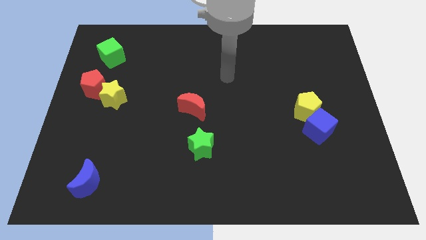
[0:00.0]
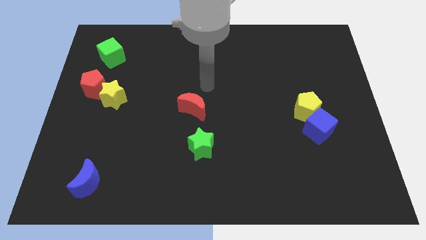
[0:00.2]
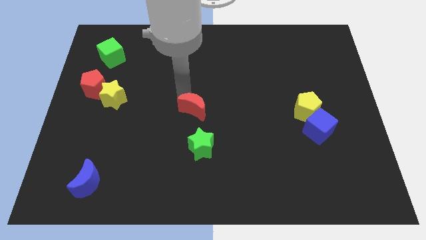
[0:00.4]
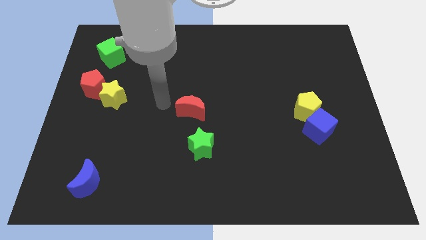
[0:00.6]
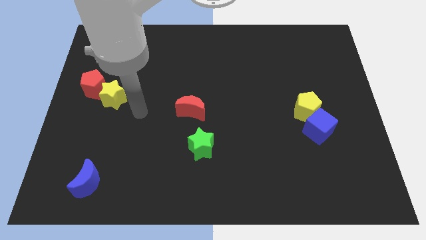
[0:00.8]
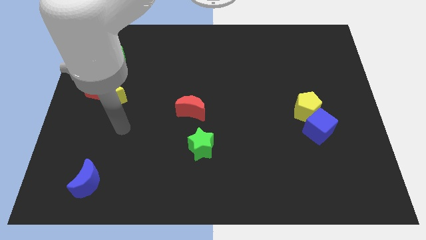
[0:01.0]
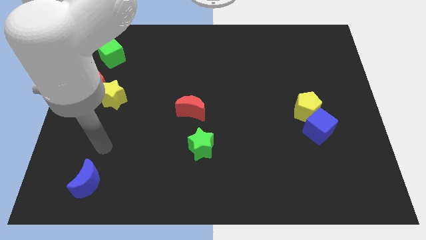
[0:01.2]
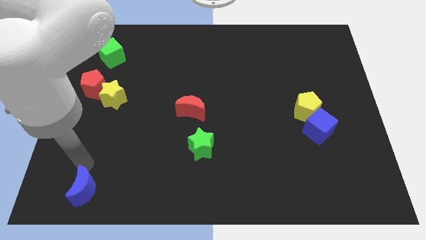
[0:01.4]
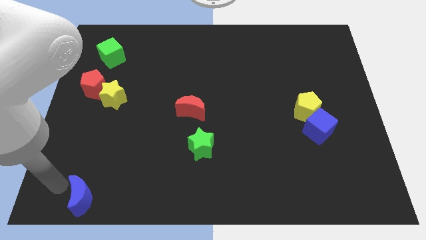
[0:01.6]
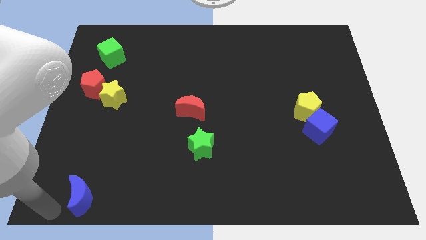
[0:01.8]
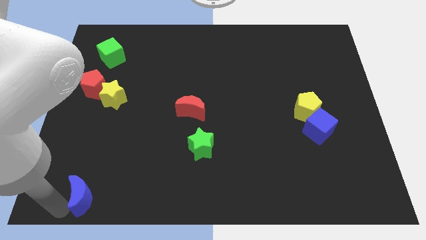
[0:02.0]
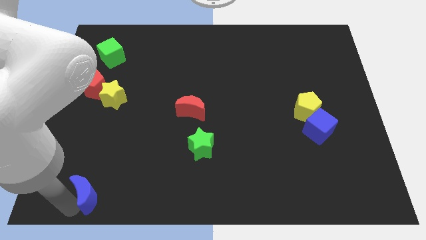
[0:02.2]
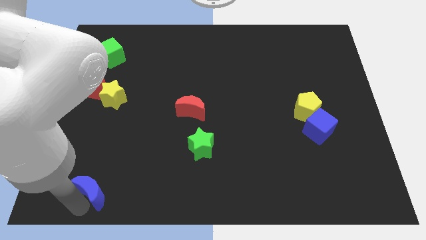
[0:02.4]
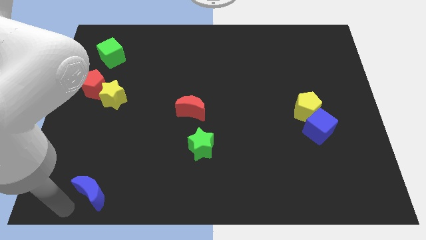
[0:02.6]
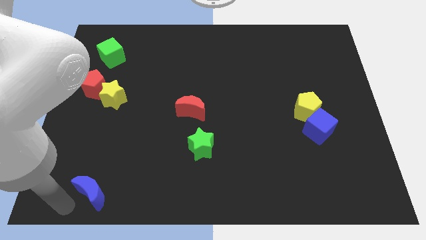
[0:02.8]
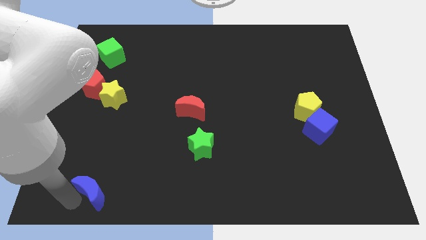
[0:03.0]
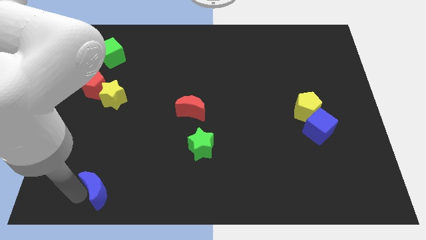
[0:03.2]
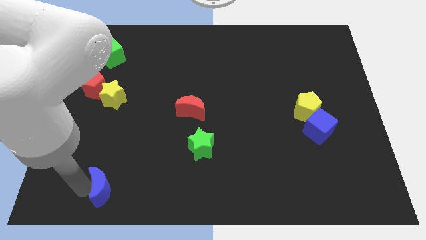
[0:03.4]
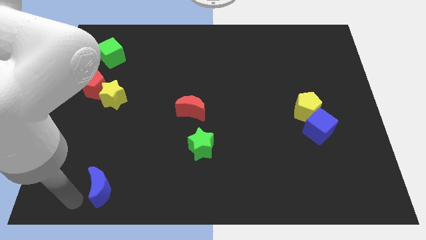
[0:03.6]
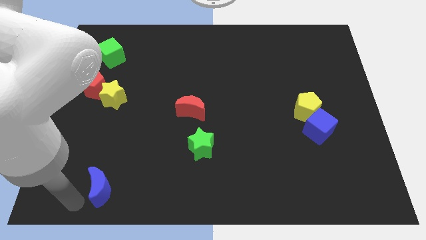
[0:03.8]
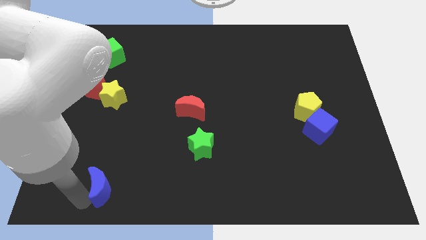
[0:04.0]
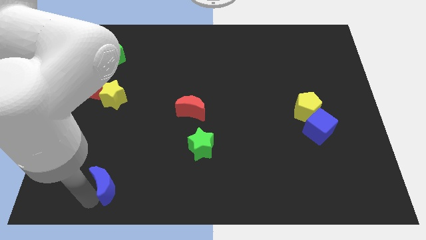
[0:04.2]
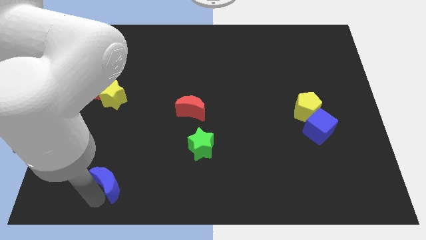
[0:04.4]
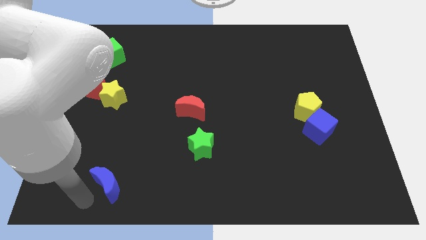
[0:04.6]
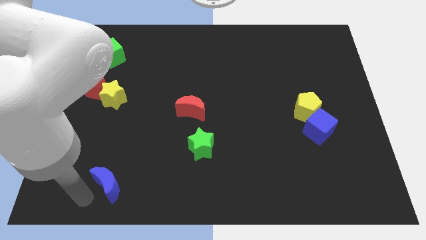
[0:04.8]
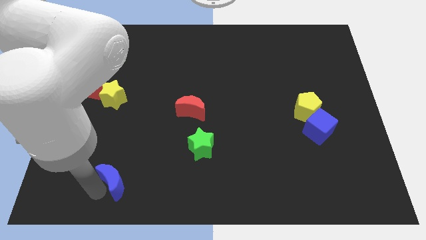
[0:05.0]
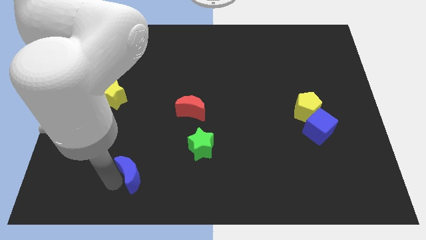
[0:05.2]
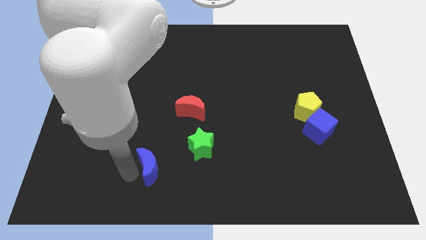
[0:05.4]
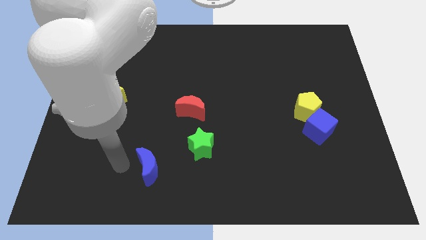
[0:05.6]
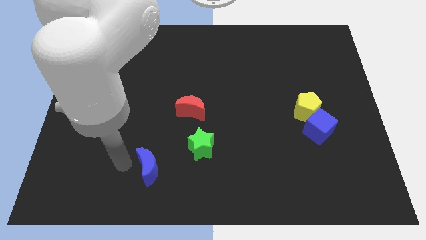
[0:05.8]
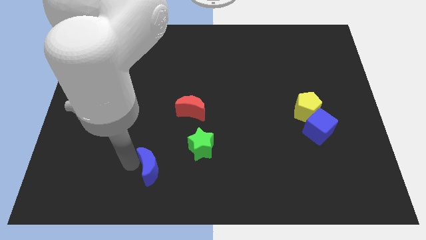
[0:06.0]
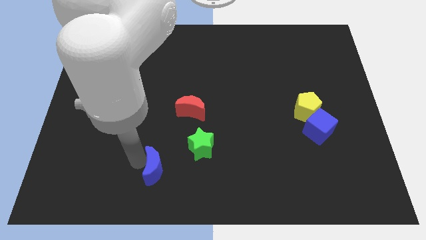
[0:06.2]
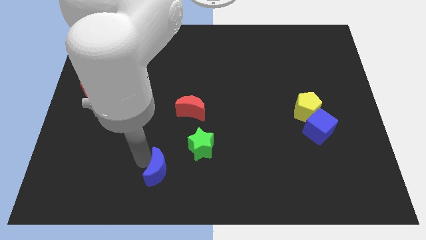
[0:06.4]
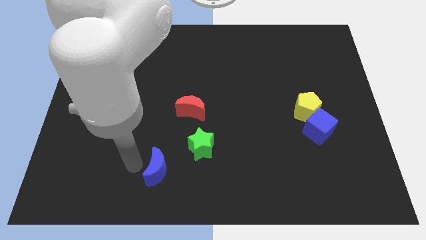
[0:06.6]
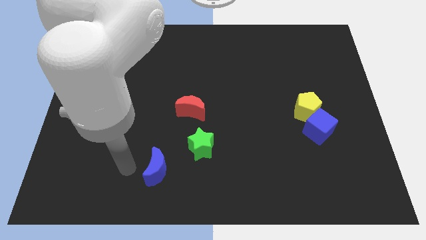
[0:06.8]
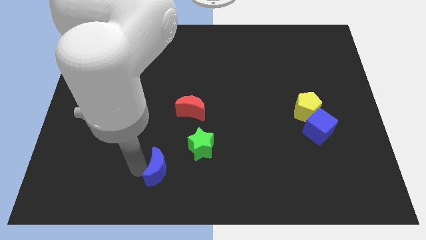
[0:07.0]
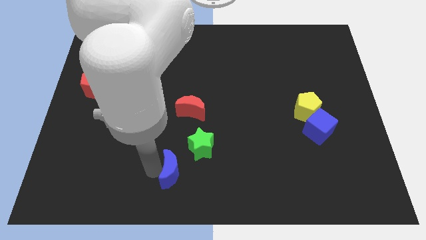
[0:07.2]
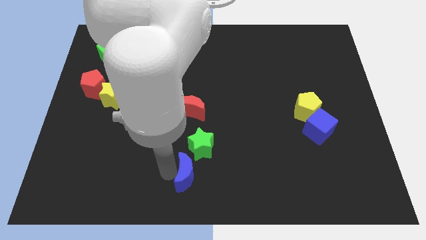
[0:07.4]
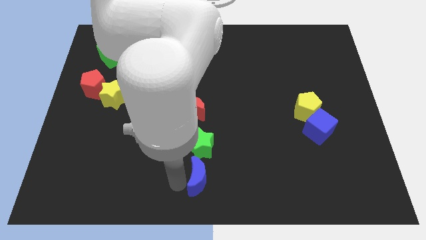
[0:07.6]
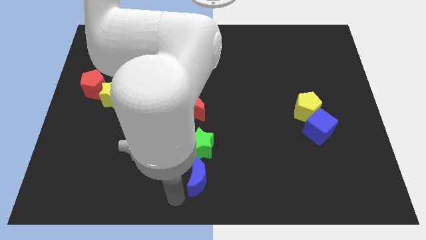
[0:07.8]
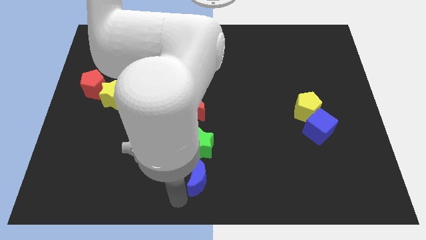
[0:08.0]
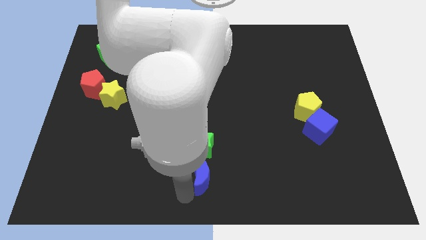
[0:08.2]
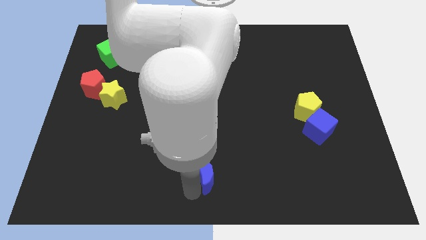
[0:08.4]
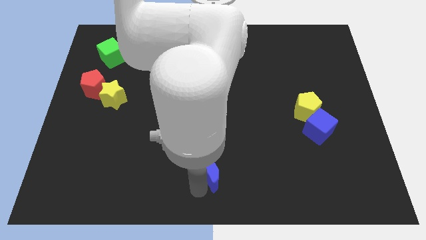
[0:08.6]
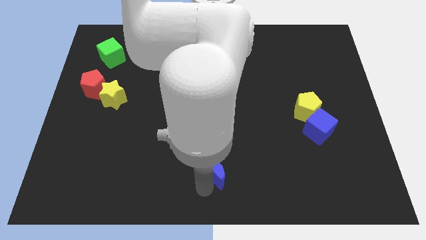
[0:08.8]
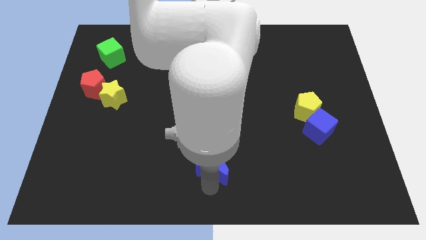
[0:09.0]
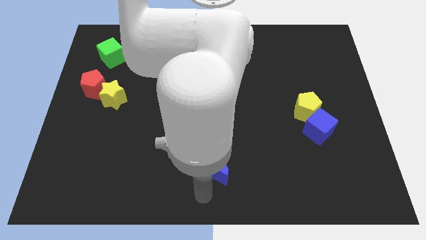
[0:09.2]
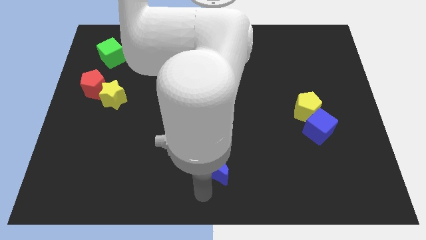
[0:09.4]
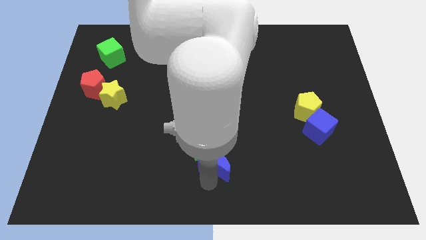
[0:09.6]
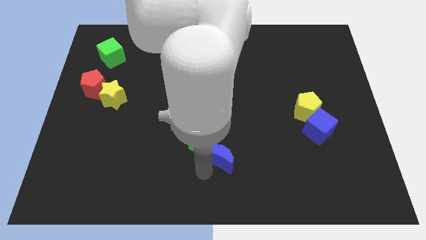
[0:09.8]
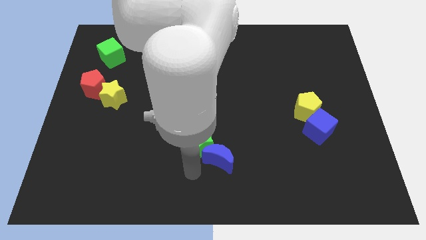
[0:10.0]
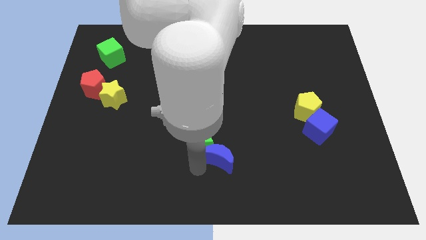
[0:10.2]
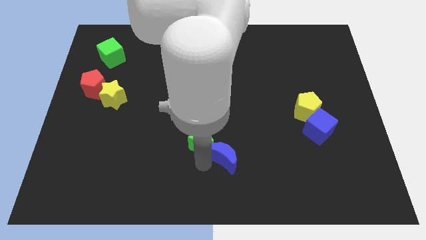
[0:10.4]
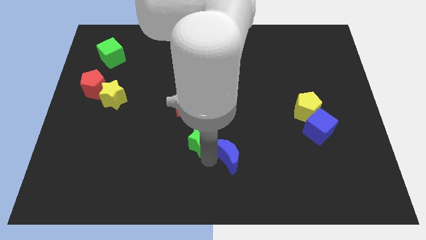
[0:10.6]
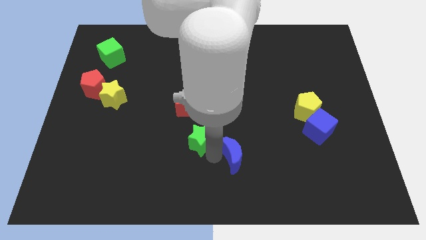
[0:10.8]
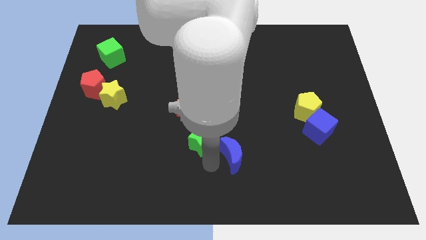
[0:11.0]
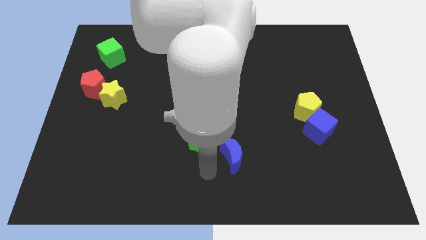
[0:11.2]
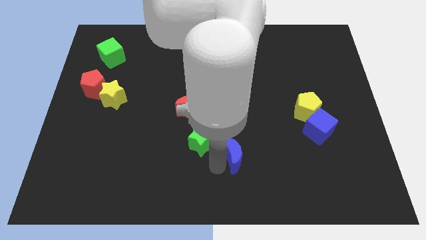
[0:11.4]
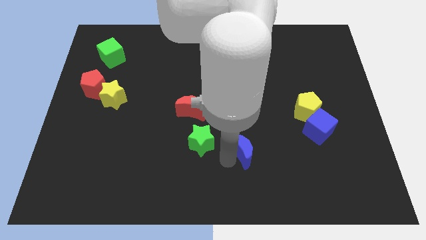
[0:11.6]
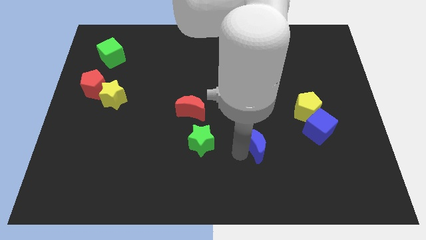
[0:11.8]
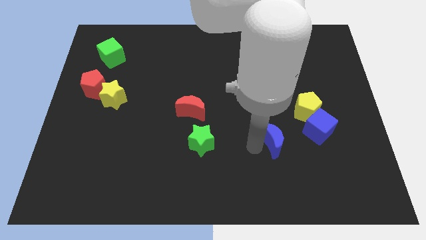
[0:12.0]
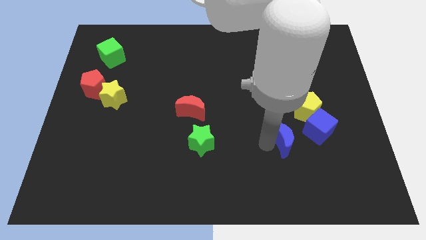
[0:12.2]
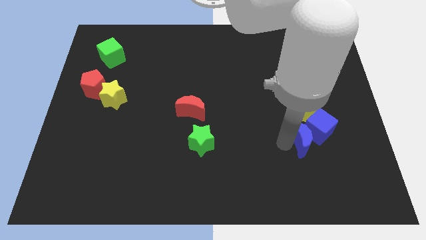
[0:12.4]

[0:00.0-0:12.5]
push the blue moon to the blue cube

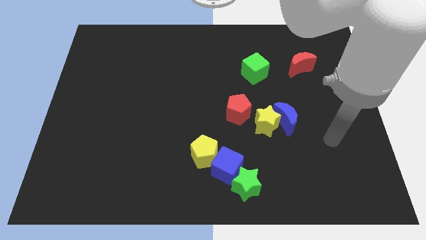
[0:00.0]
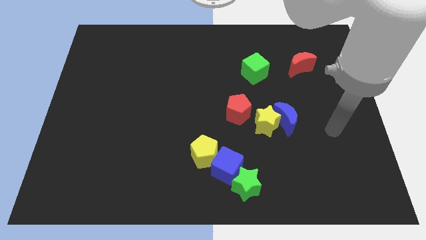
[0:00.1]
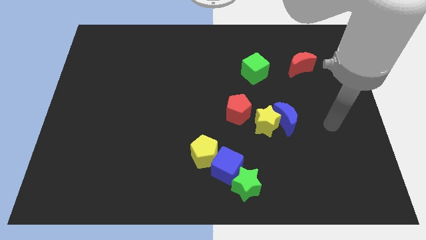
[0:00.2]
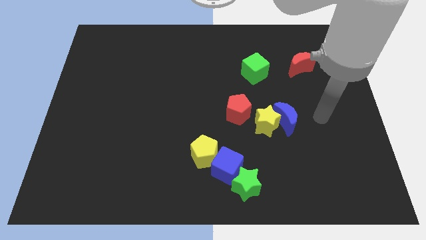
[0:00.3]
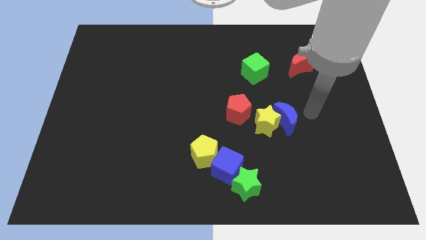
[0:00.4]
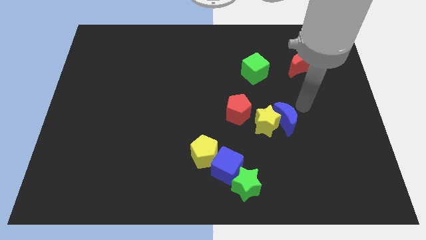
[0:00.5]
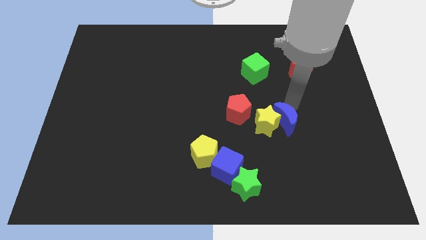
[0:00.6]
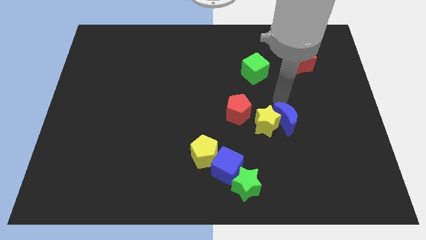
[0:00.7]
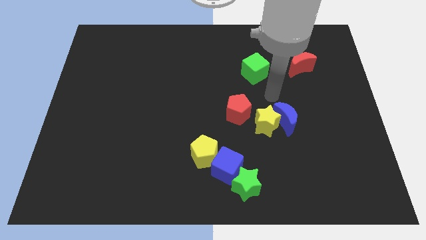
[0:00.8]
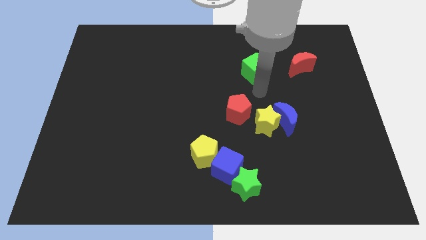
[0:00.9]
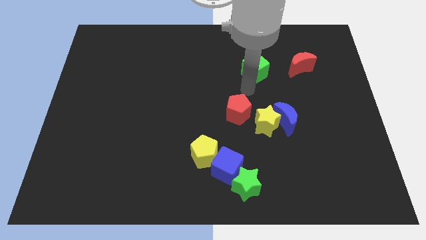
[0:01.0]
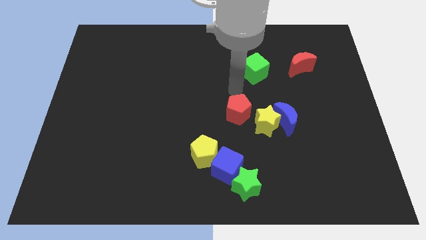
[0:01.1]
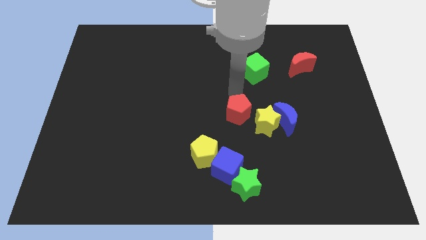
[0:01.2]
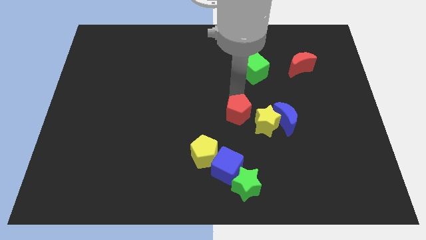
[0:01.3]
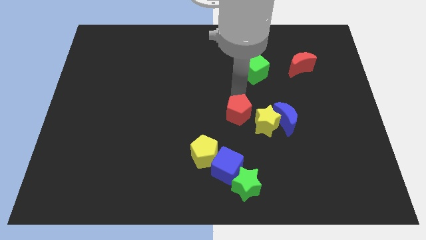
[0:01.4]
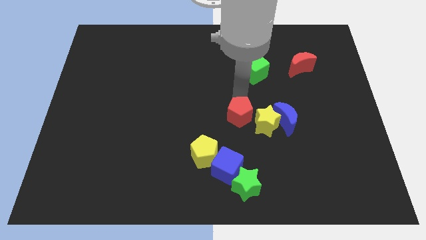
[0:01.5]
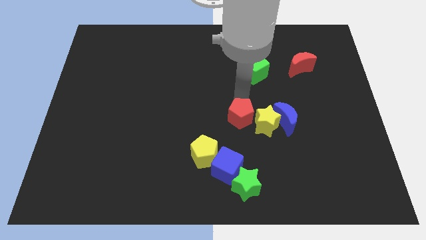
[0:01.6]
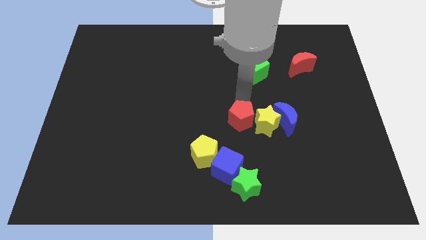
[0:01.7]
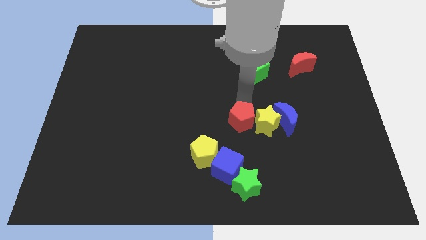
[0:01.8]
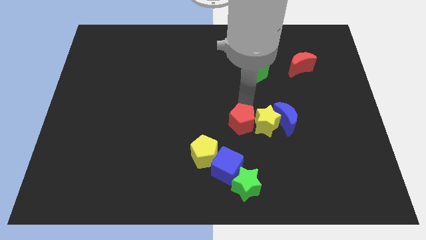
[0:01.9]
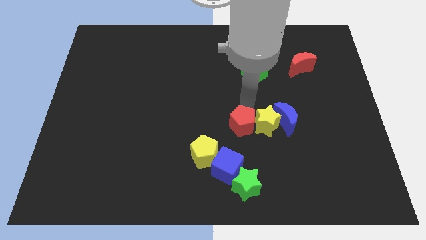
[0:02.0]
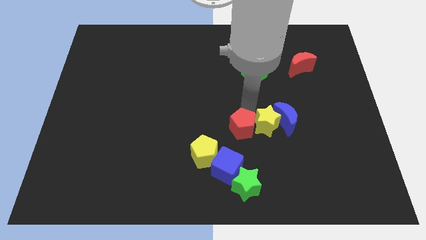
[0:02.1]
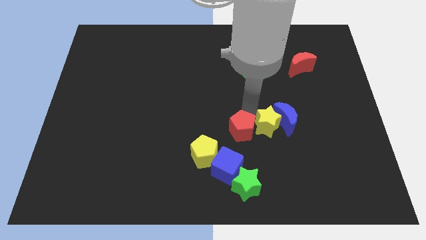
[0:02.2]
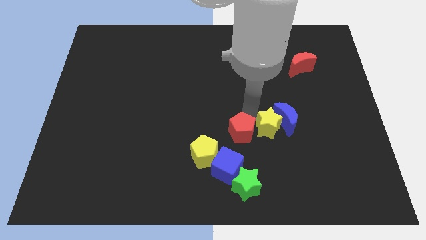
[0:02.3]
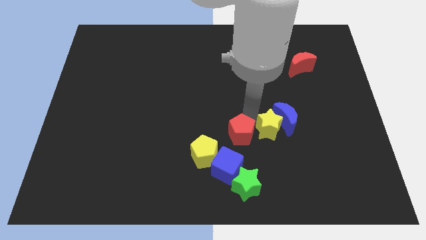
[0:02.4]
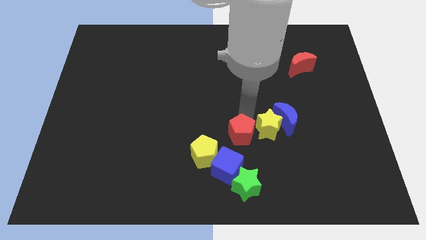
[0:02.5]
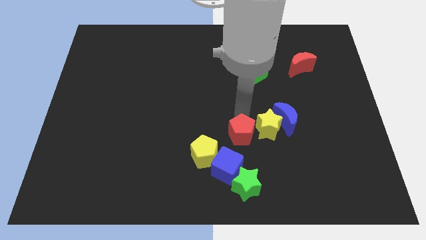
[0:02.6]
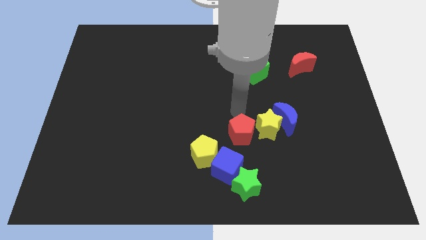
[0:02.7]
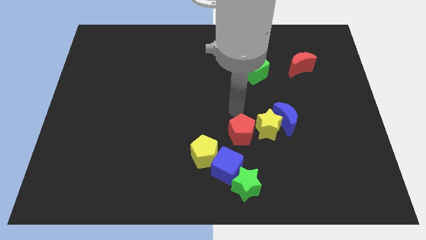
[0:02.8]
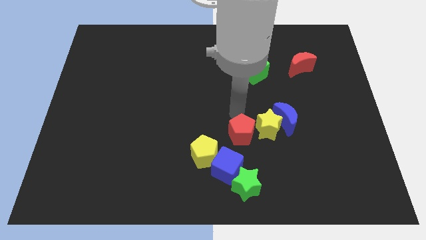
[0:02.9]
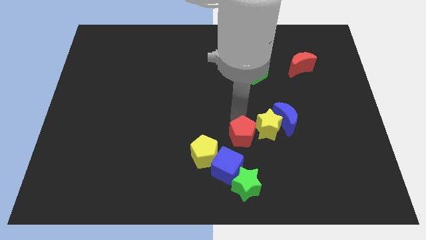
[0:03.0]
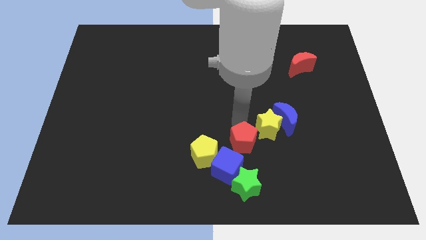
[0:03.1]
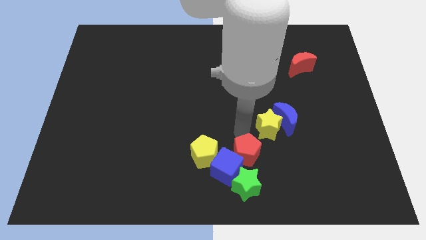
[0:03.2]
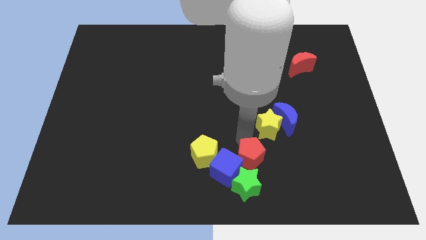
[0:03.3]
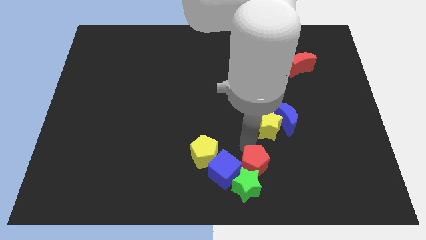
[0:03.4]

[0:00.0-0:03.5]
put the red pentagon to the green star
